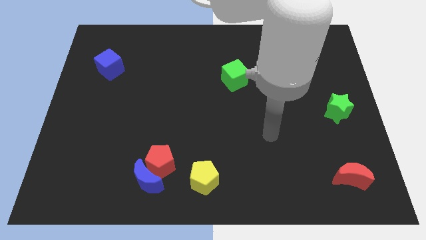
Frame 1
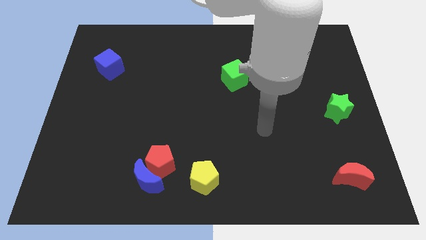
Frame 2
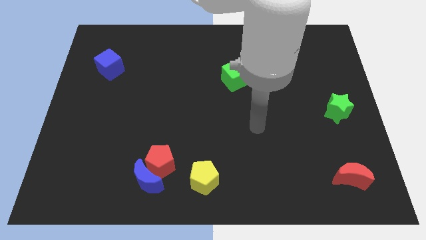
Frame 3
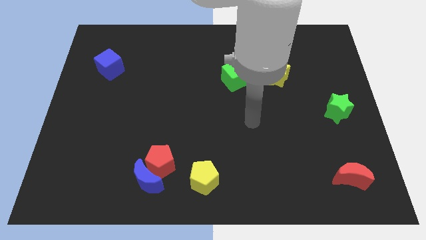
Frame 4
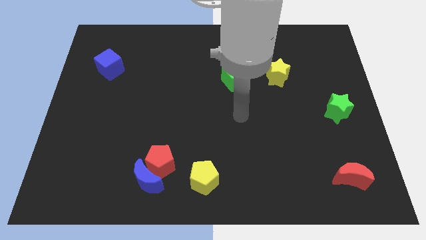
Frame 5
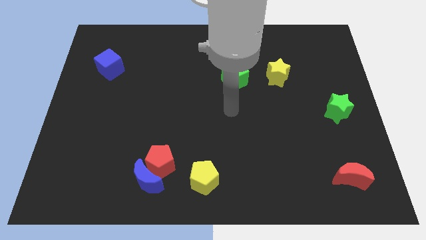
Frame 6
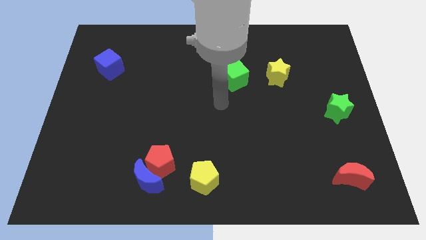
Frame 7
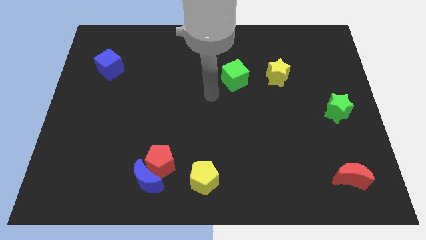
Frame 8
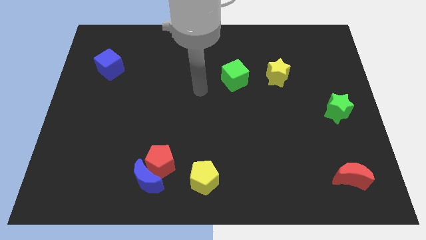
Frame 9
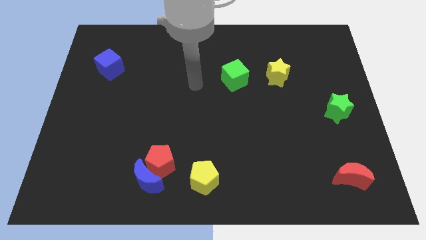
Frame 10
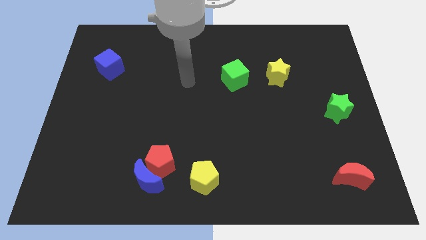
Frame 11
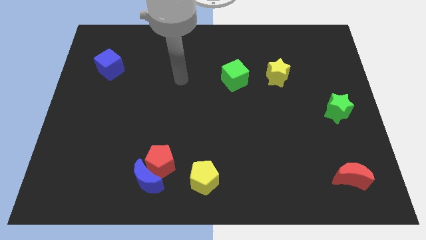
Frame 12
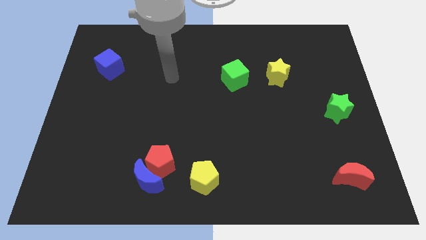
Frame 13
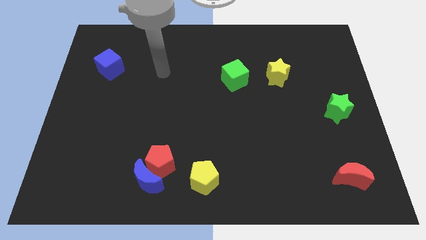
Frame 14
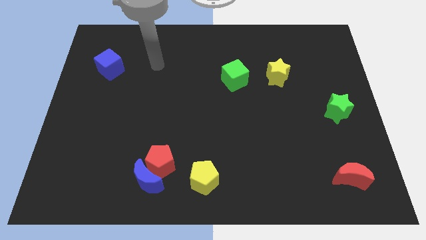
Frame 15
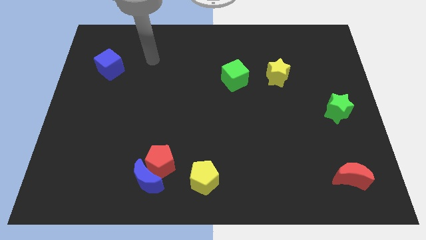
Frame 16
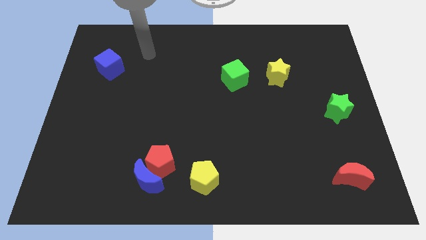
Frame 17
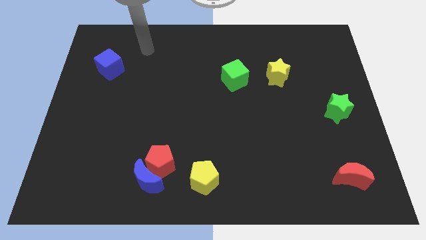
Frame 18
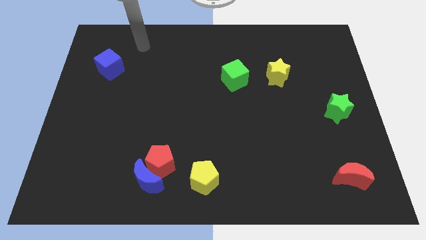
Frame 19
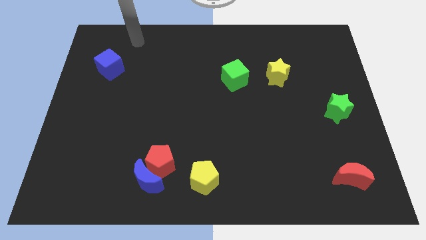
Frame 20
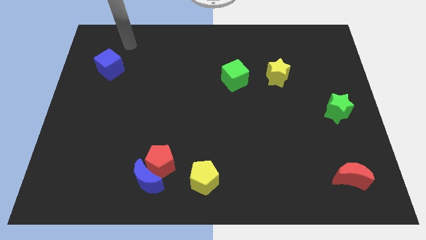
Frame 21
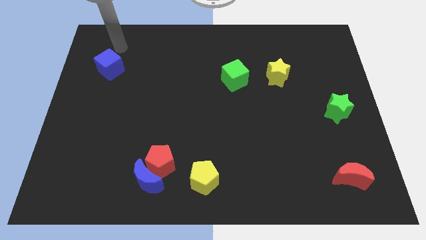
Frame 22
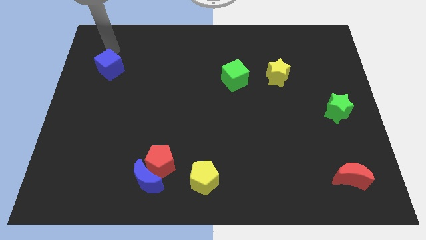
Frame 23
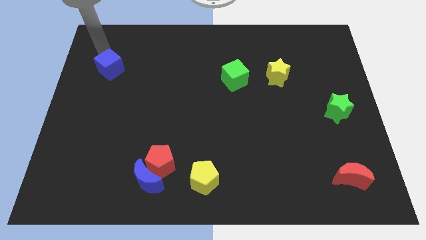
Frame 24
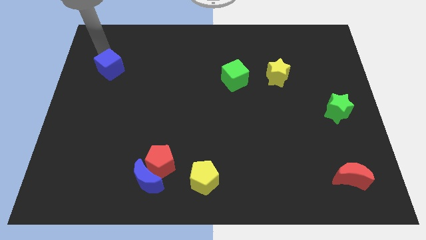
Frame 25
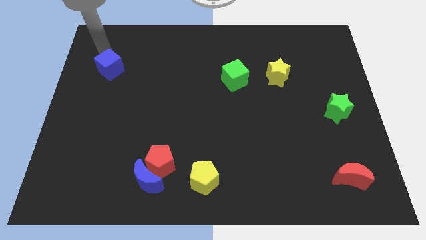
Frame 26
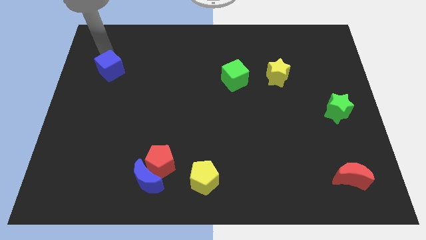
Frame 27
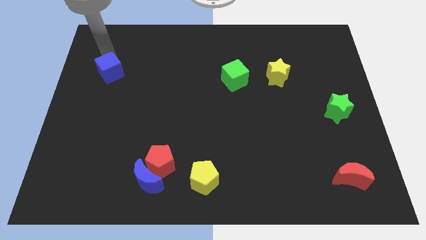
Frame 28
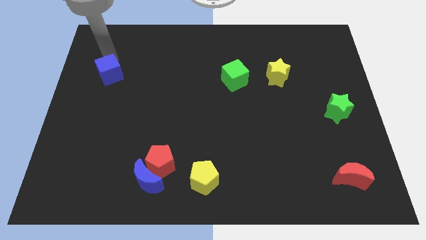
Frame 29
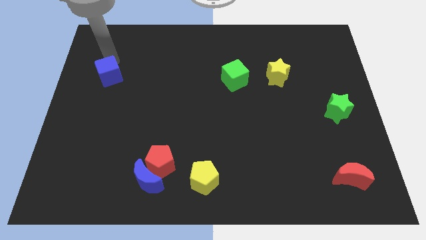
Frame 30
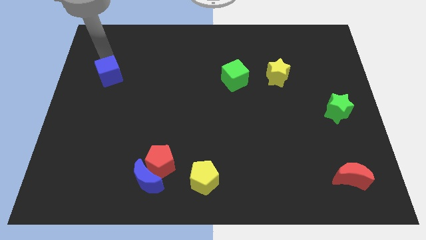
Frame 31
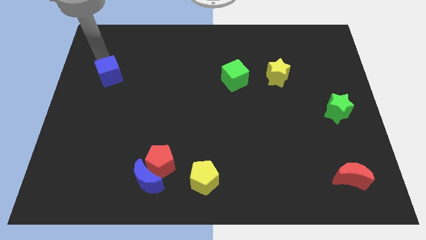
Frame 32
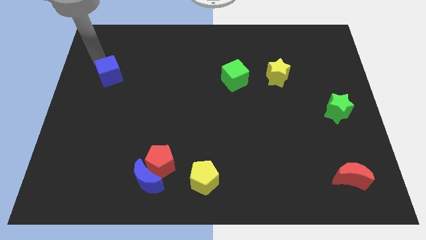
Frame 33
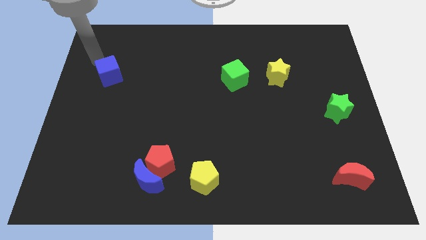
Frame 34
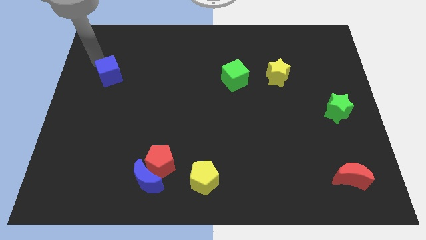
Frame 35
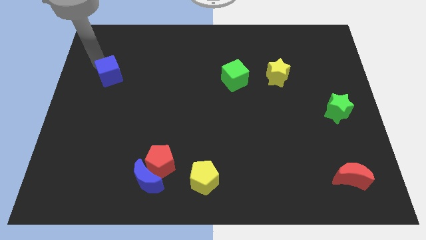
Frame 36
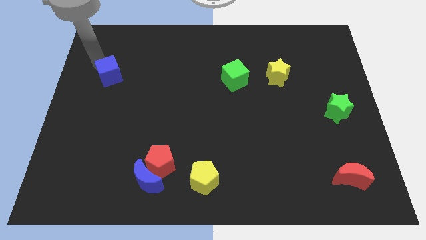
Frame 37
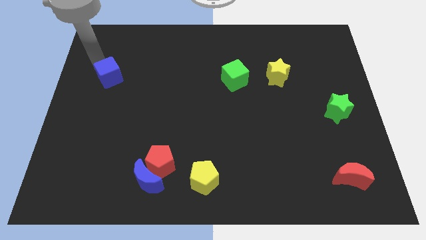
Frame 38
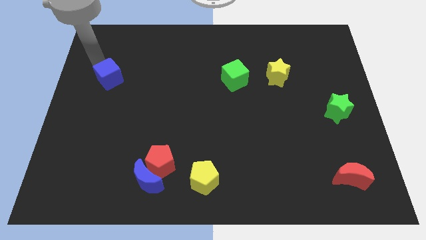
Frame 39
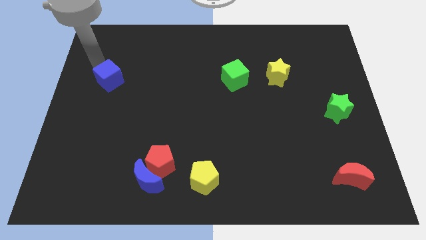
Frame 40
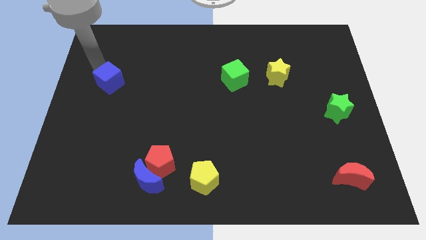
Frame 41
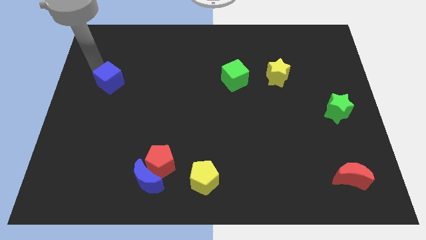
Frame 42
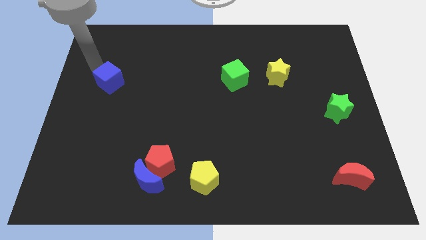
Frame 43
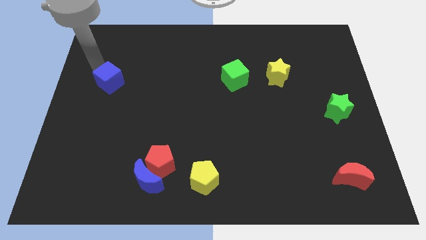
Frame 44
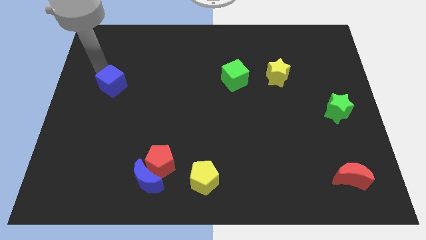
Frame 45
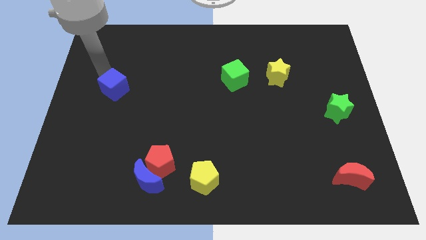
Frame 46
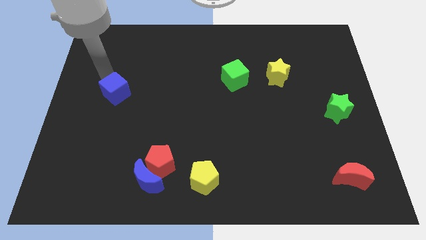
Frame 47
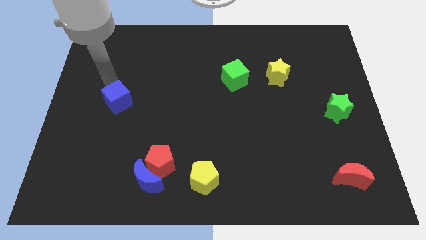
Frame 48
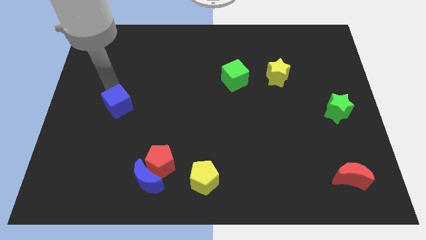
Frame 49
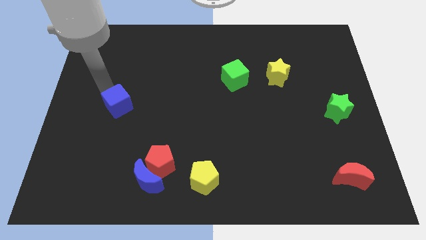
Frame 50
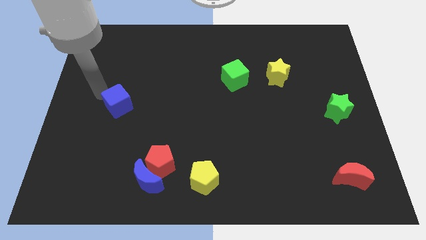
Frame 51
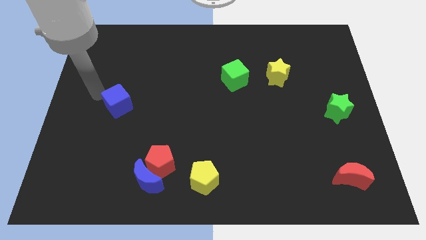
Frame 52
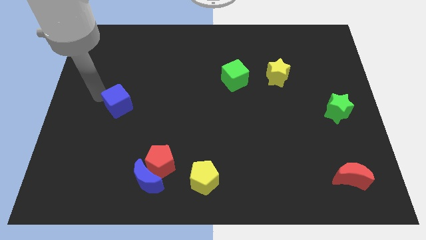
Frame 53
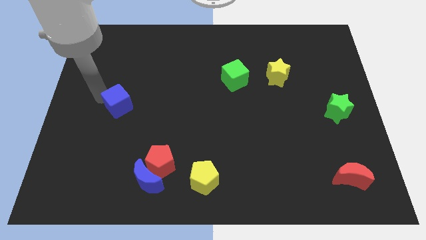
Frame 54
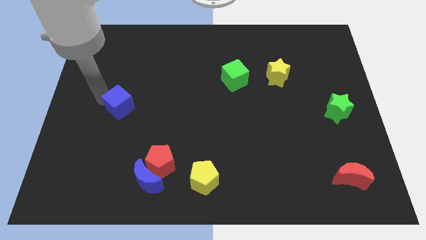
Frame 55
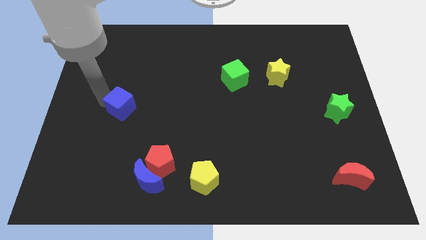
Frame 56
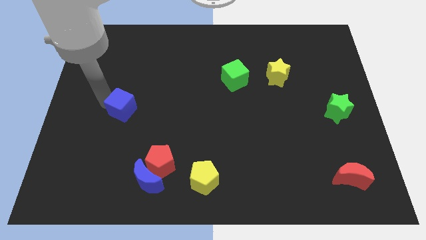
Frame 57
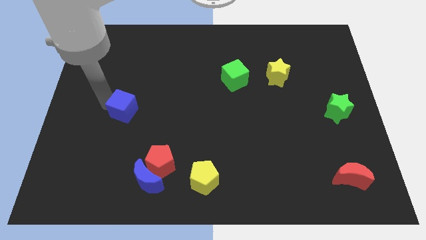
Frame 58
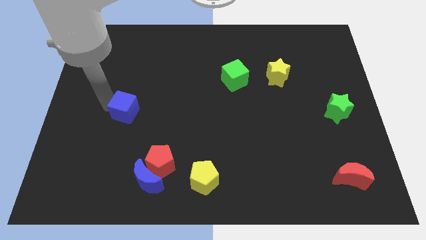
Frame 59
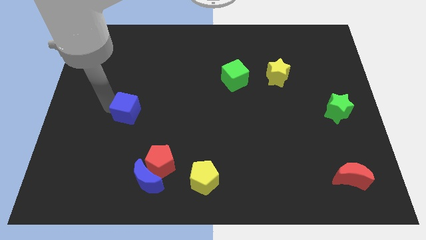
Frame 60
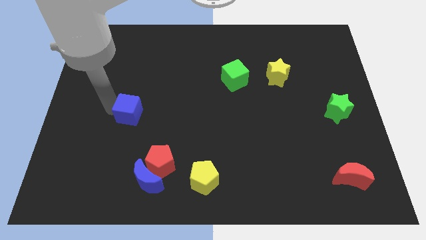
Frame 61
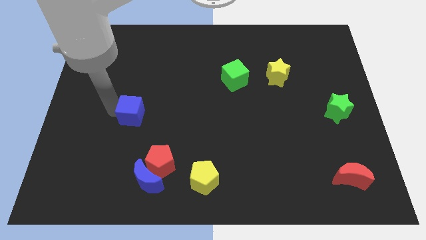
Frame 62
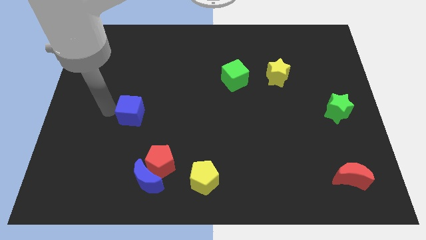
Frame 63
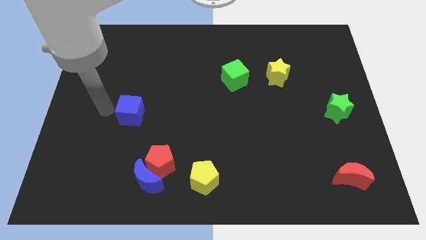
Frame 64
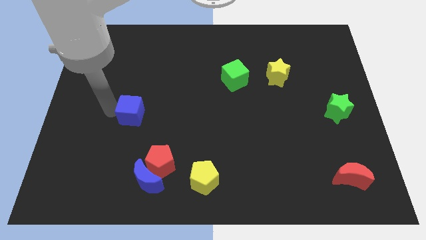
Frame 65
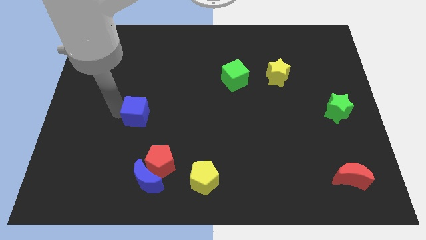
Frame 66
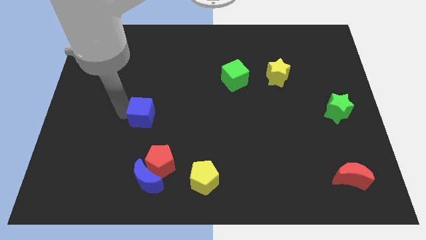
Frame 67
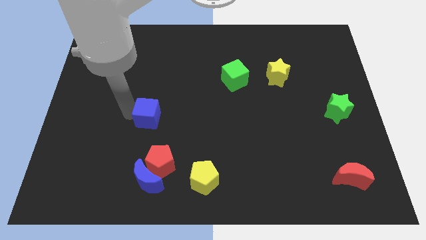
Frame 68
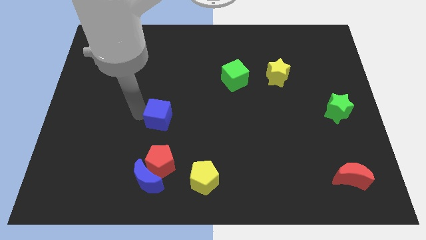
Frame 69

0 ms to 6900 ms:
move the blue cube diagonally down and to the right

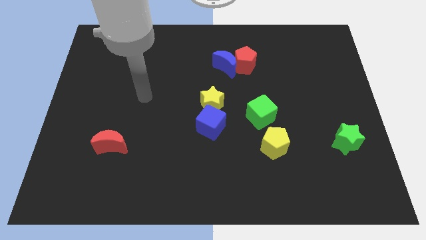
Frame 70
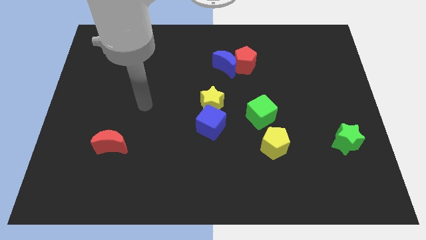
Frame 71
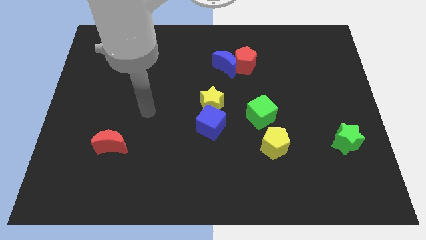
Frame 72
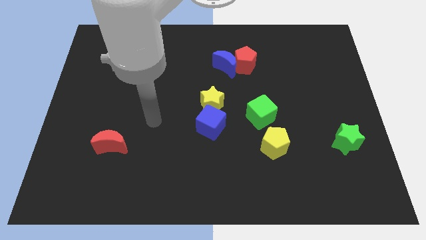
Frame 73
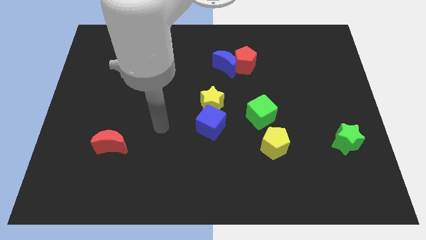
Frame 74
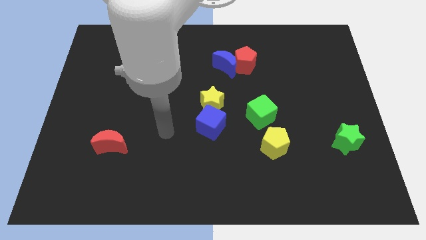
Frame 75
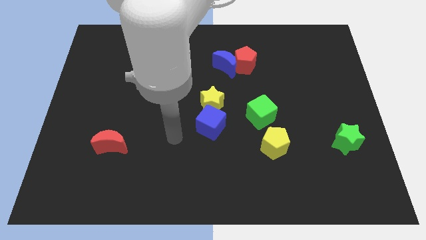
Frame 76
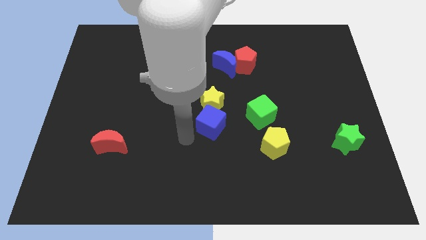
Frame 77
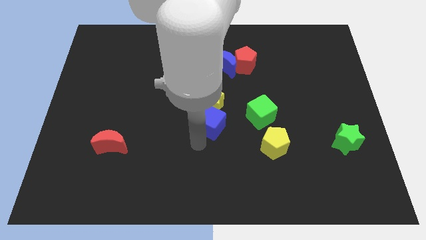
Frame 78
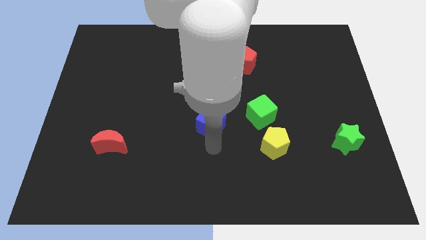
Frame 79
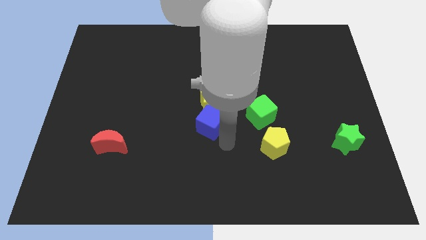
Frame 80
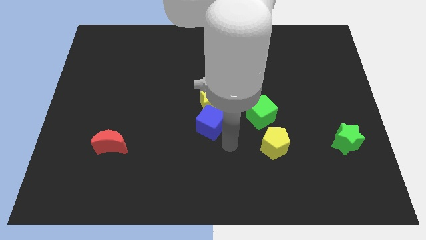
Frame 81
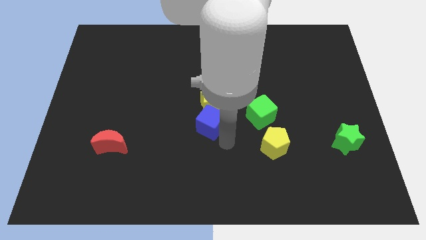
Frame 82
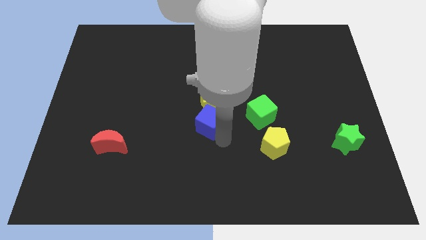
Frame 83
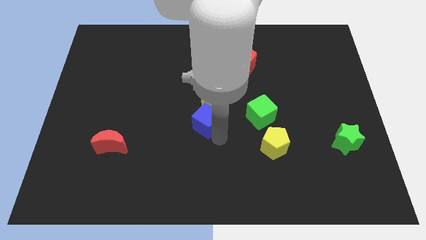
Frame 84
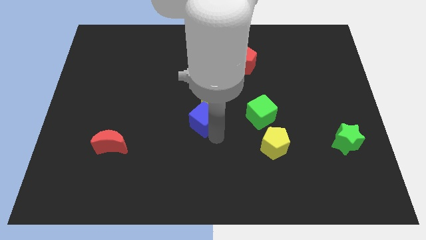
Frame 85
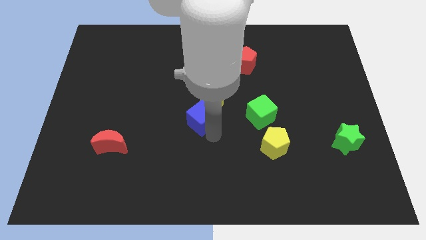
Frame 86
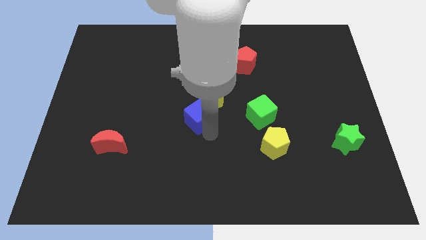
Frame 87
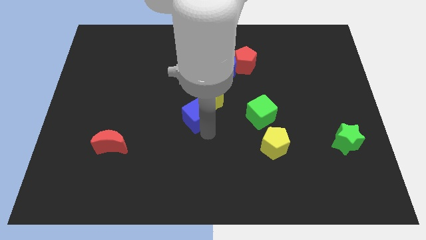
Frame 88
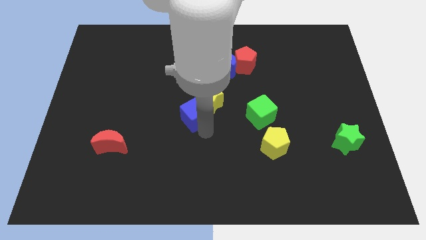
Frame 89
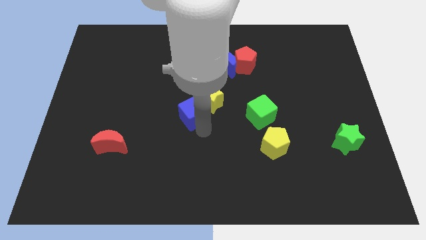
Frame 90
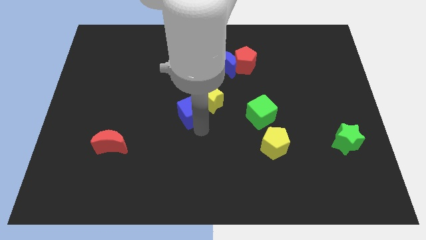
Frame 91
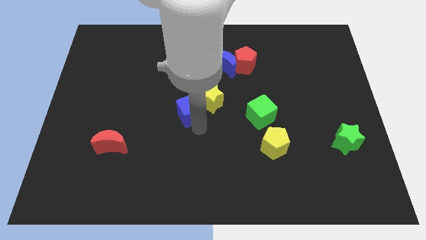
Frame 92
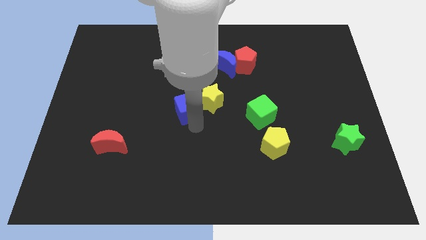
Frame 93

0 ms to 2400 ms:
move the blue cube diagonally upwards and to the left somewhat
